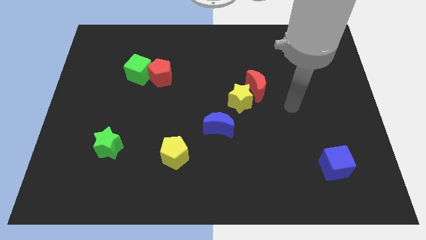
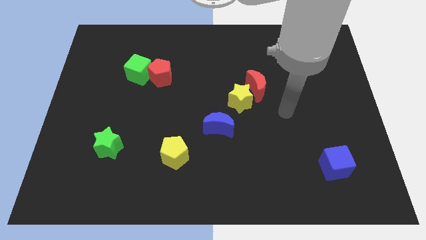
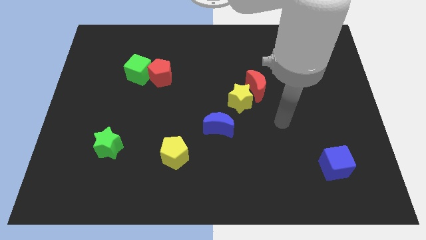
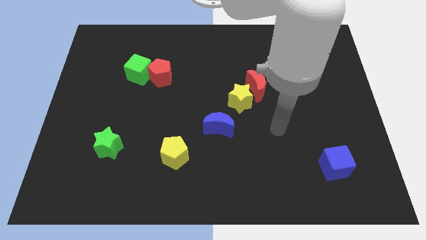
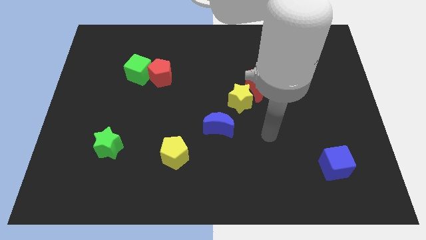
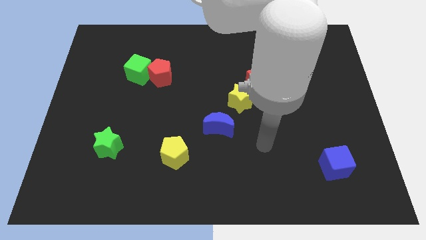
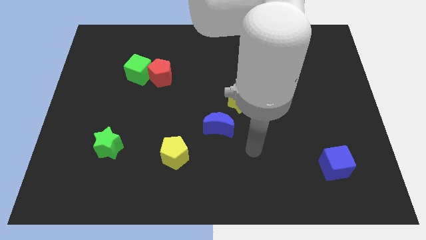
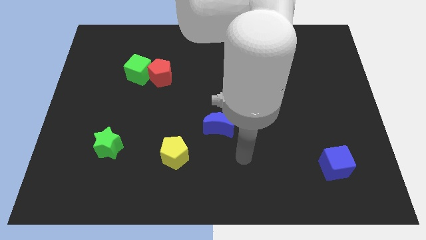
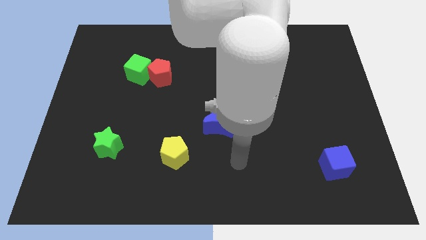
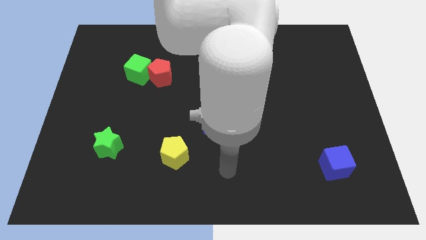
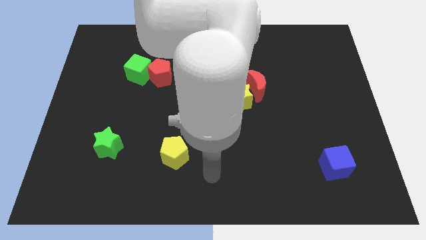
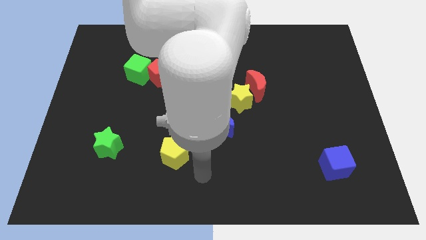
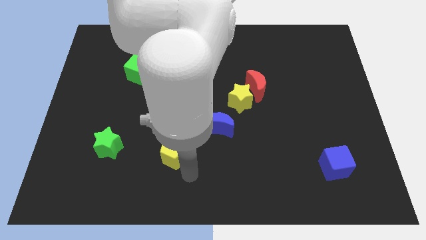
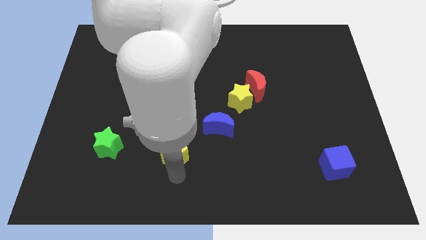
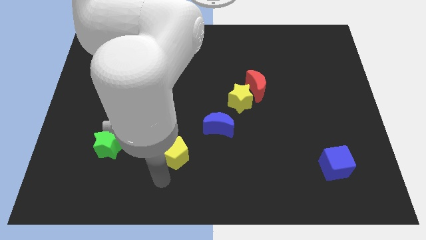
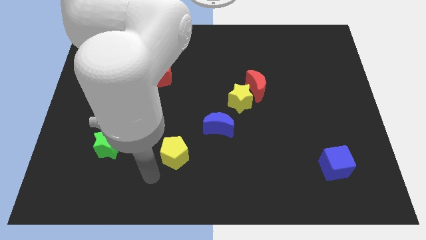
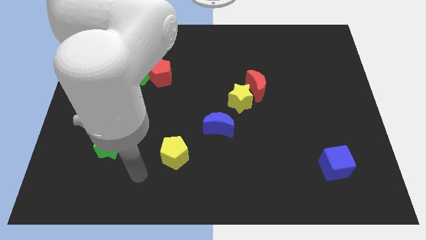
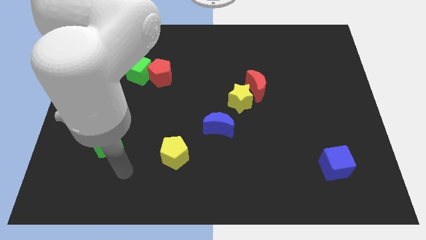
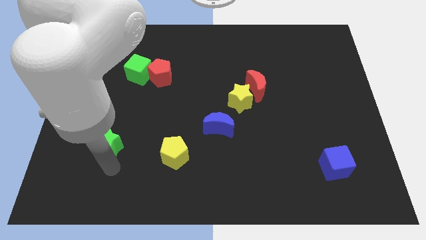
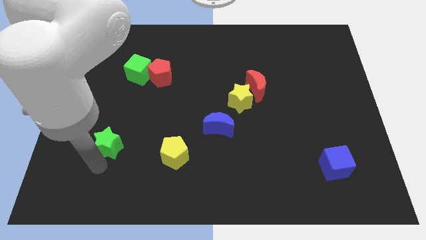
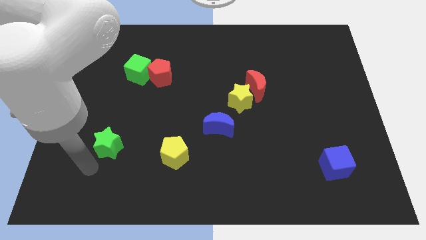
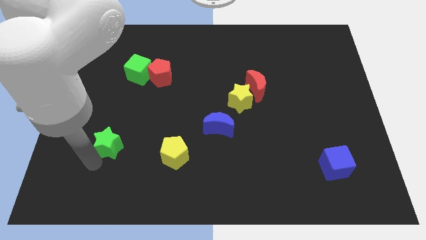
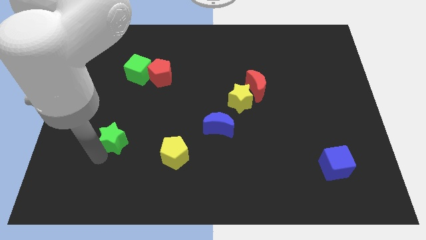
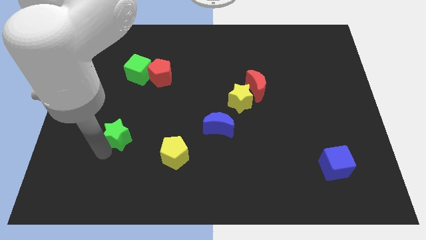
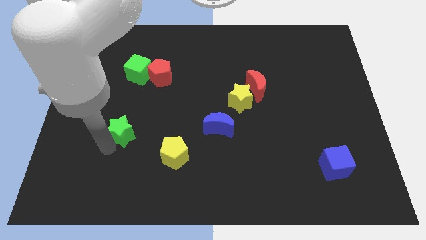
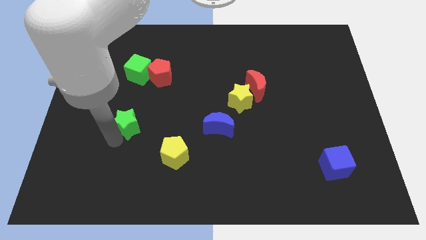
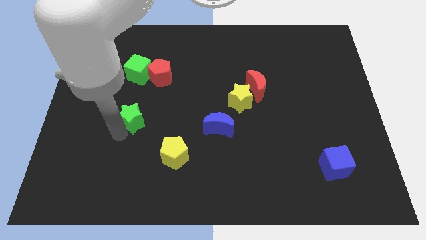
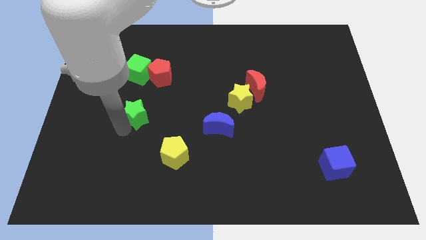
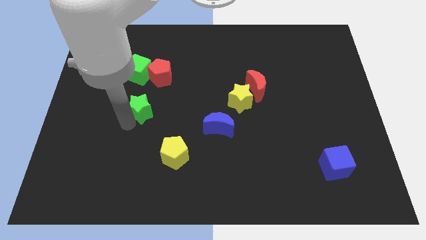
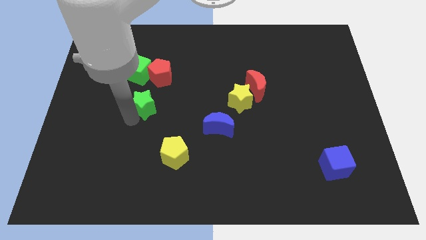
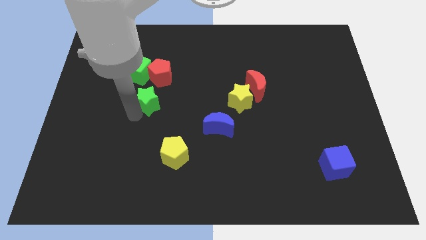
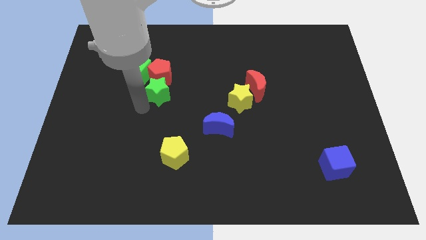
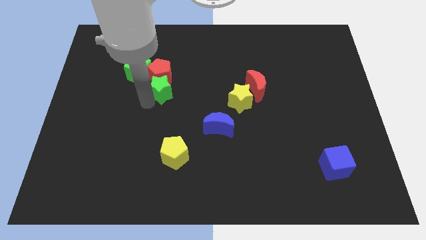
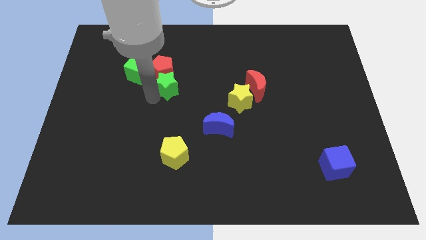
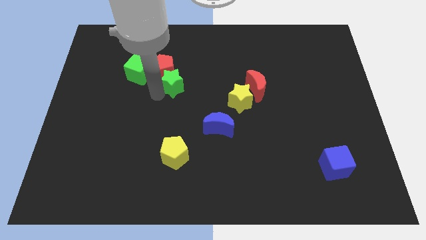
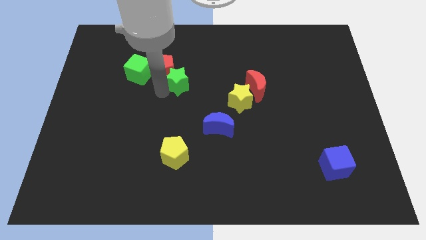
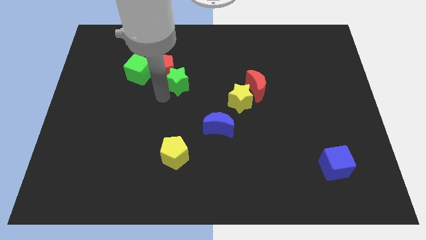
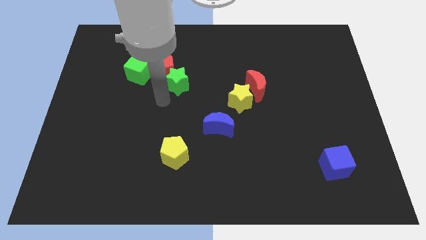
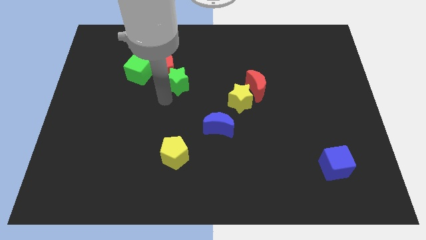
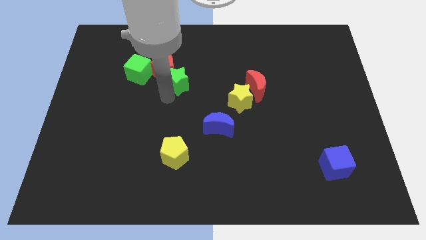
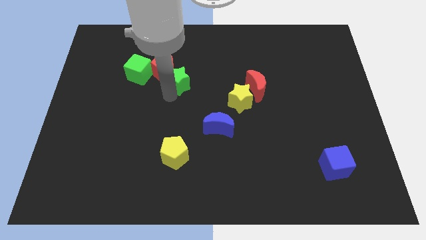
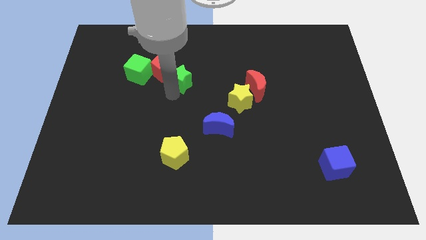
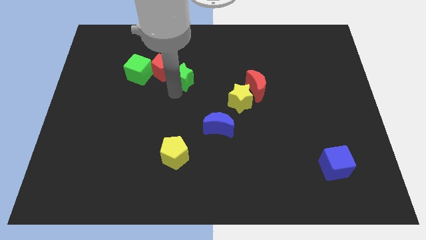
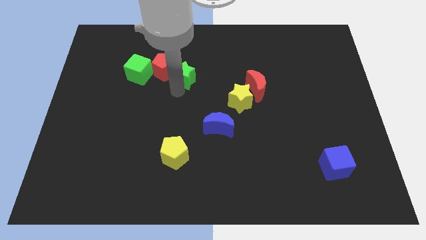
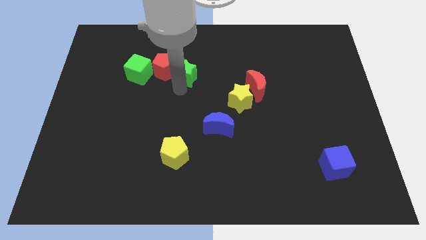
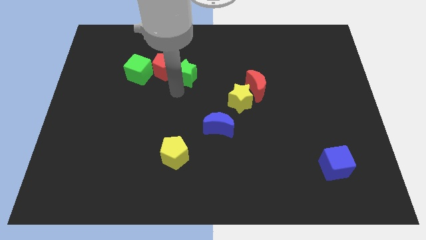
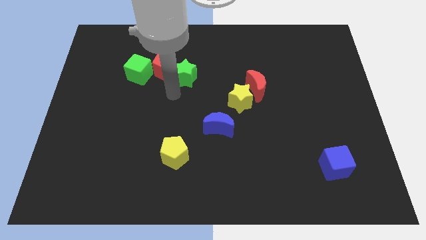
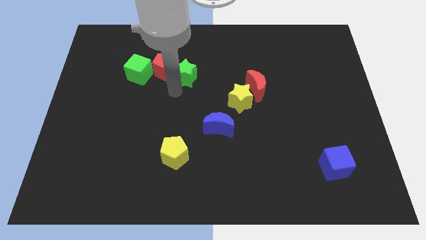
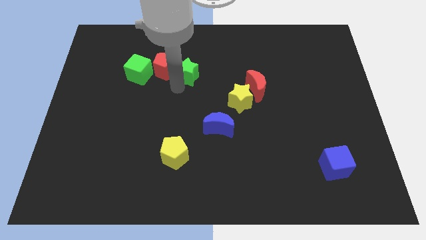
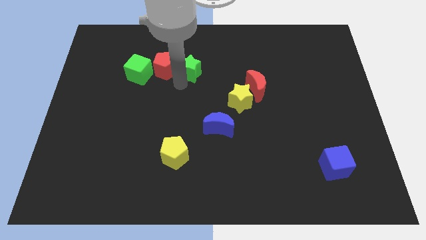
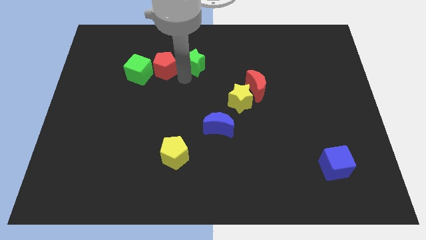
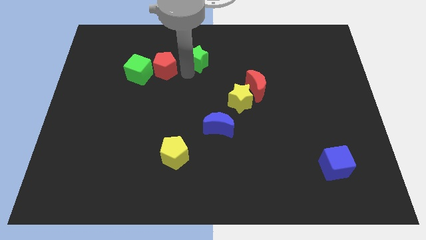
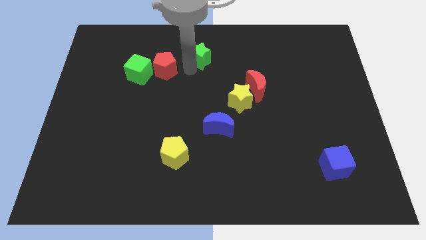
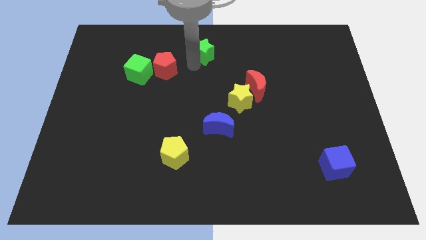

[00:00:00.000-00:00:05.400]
move the green star to the top

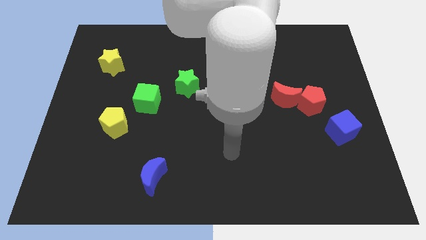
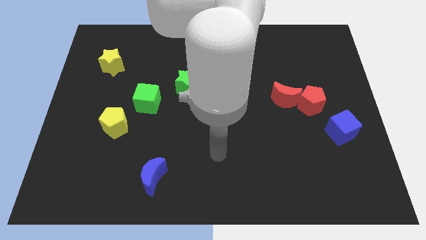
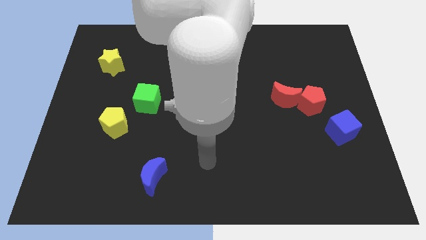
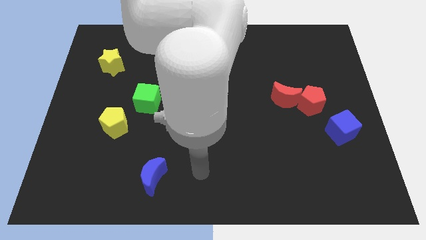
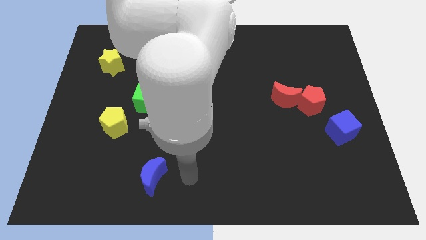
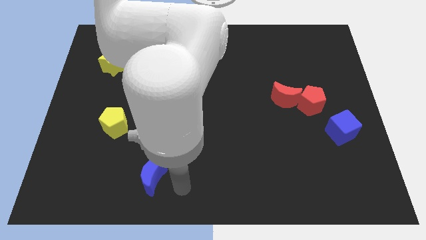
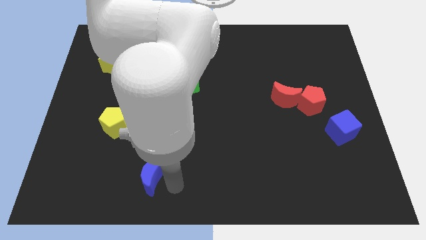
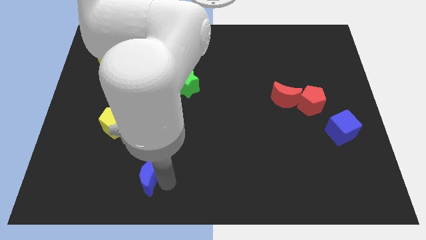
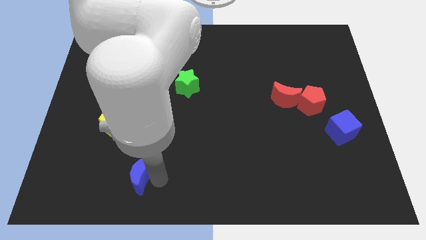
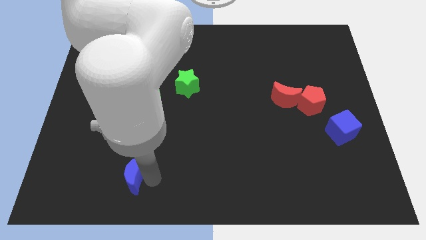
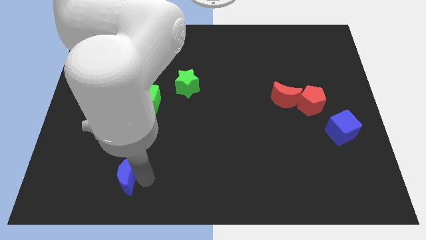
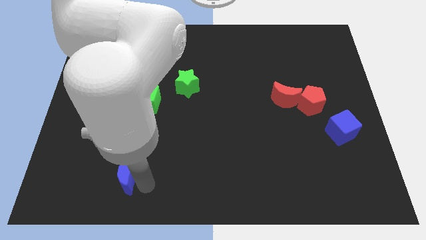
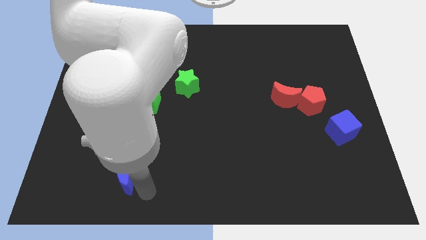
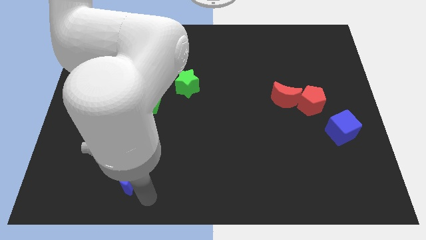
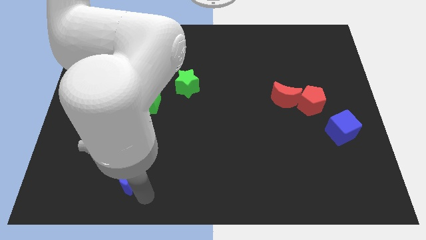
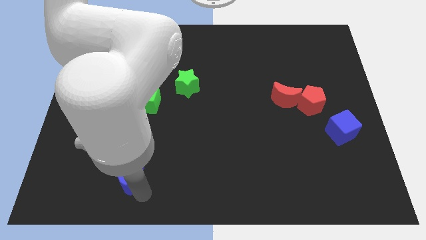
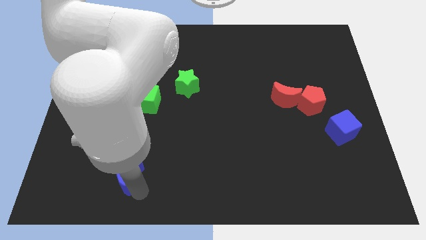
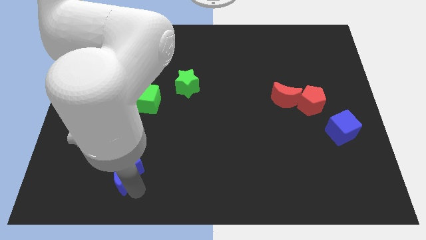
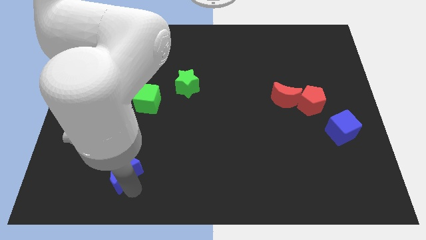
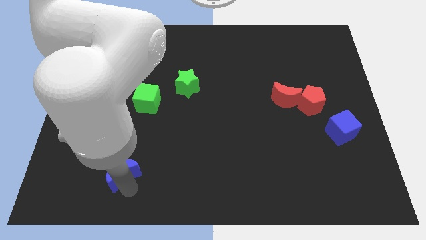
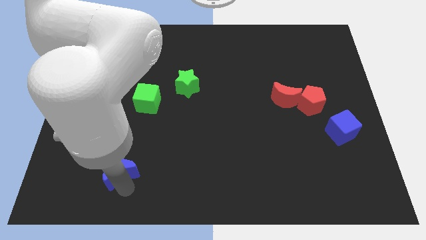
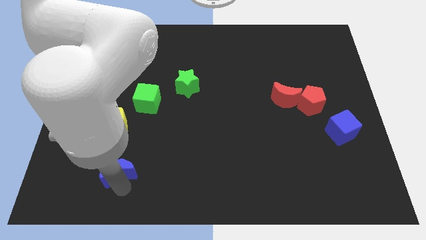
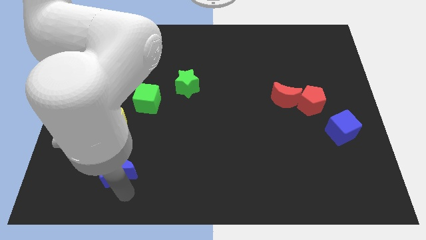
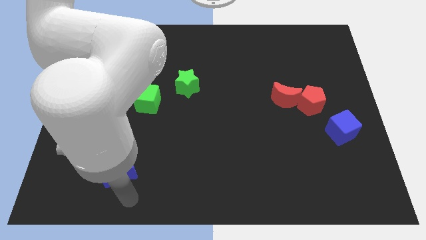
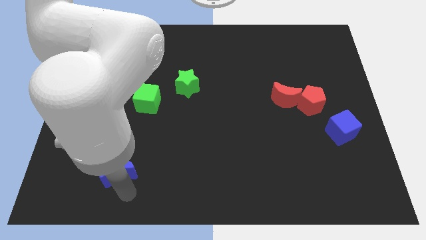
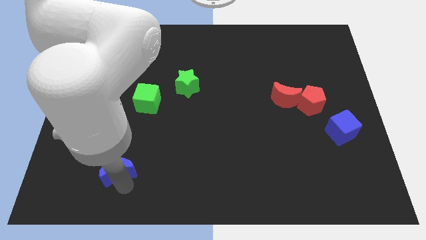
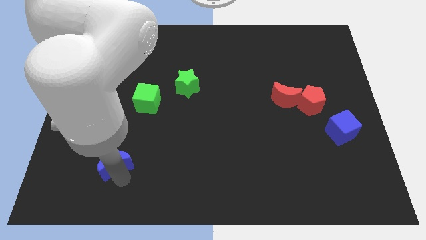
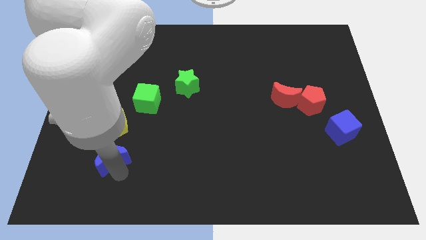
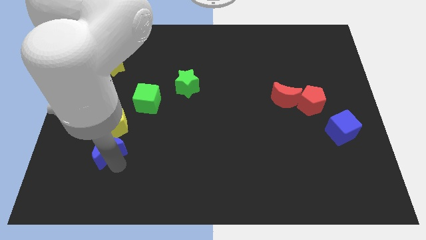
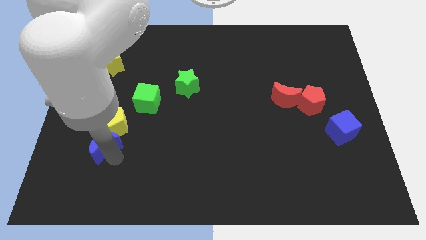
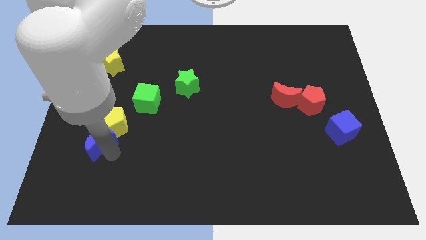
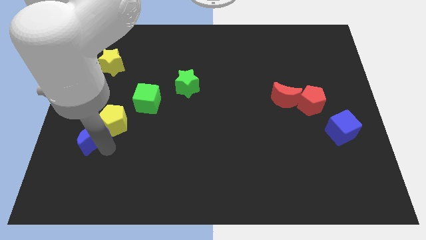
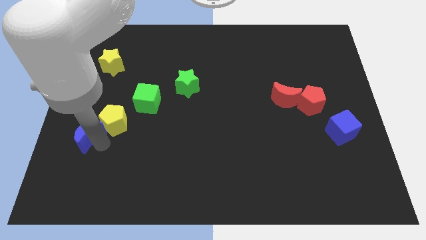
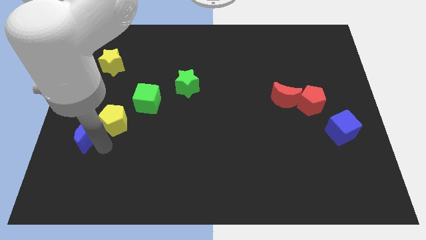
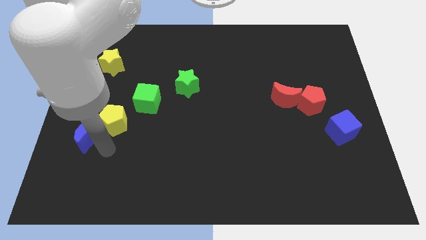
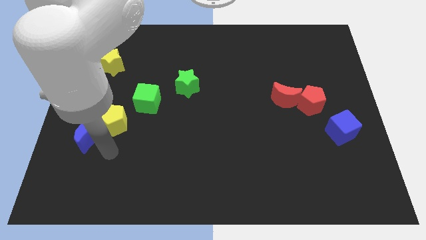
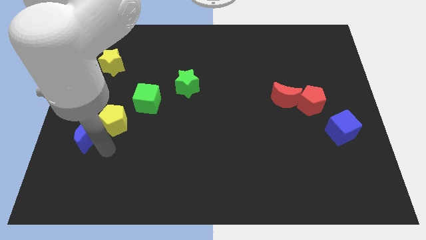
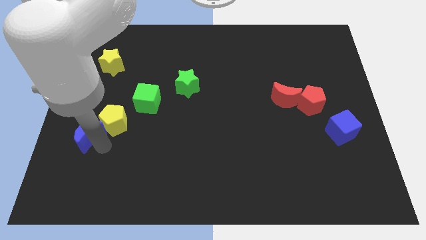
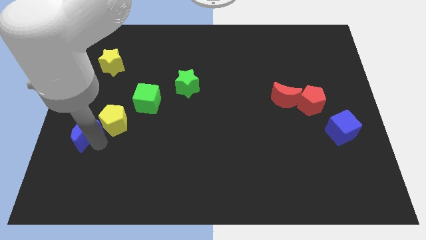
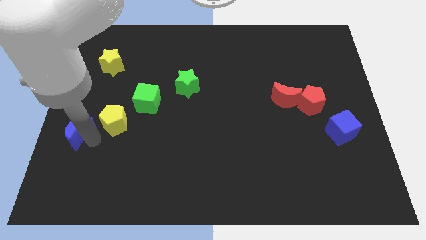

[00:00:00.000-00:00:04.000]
slide the blue moon to the left side
